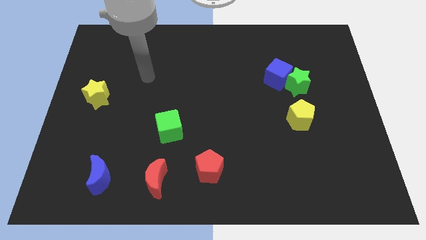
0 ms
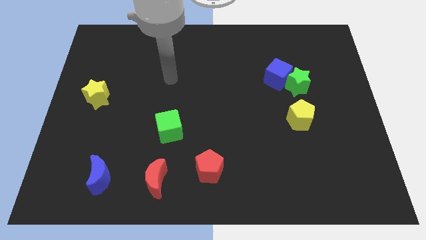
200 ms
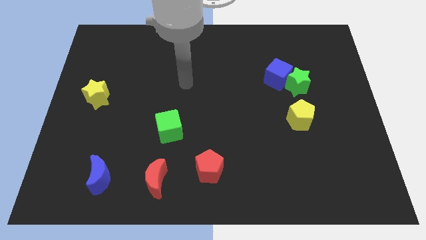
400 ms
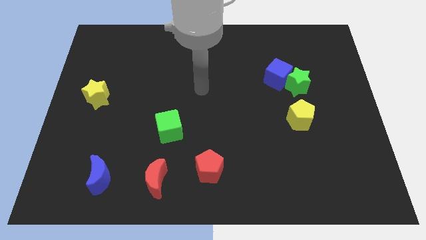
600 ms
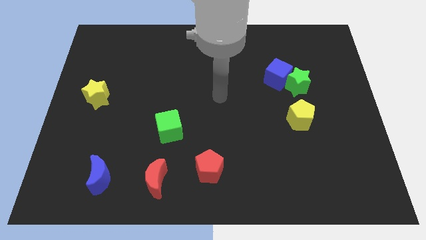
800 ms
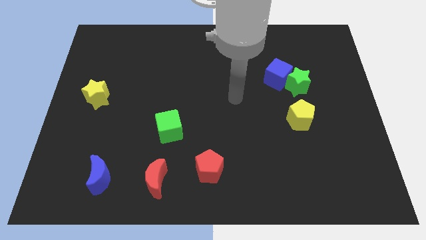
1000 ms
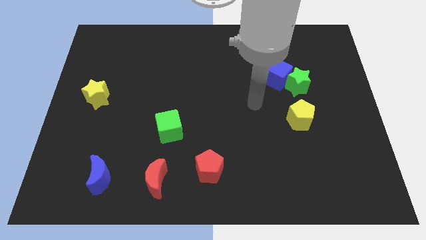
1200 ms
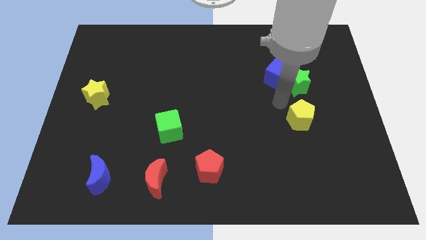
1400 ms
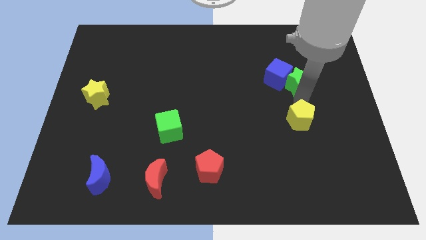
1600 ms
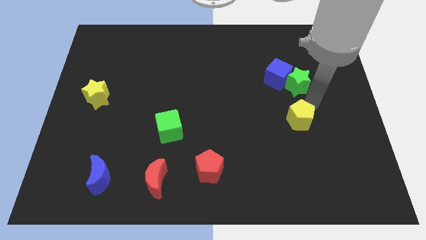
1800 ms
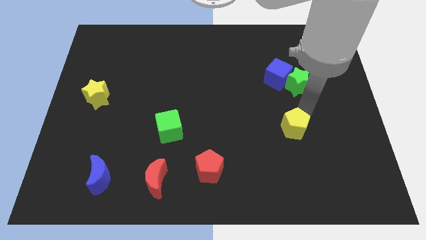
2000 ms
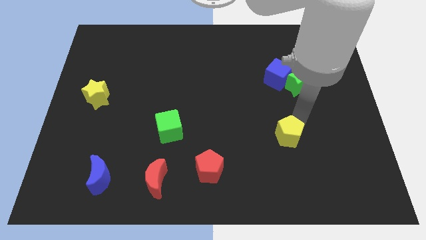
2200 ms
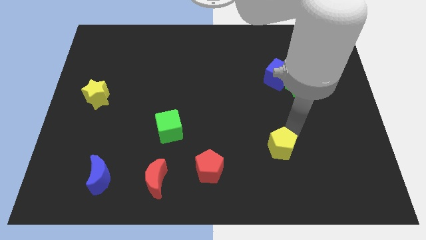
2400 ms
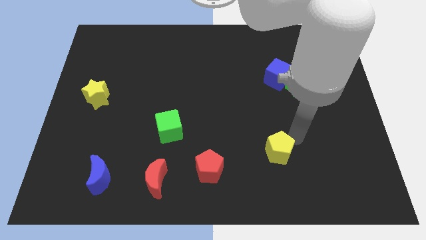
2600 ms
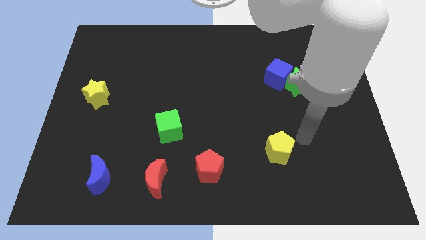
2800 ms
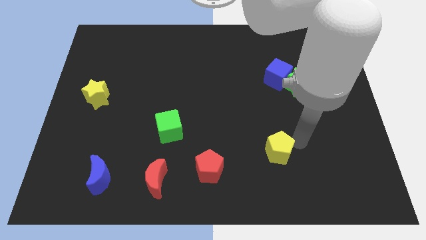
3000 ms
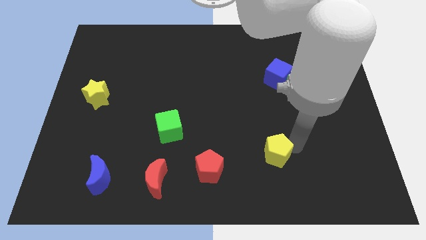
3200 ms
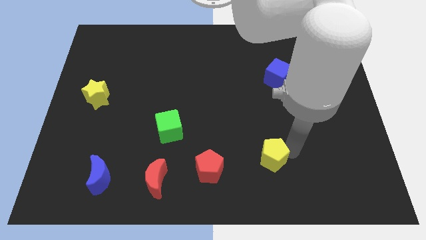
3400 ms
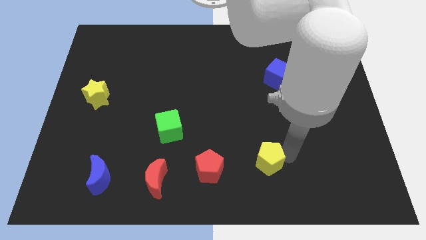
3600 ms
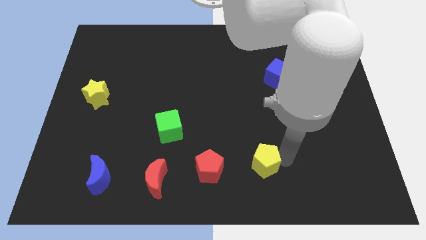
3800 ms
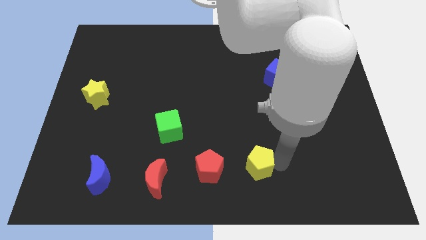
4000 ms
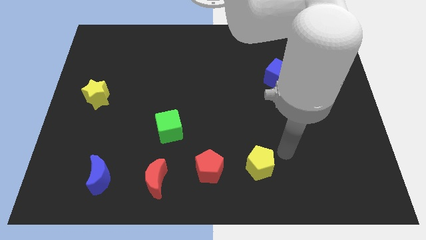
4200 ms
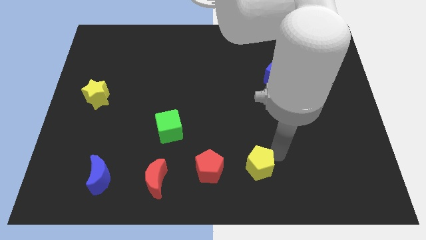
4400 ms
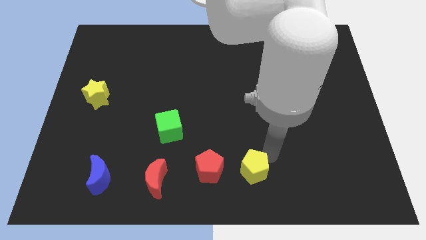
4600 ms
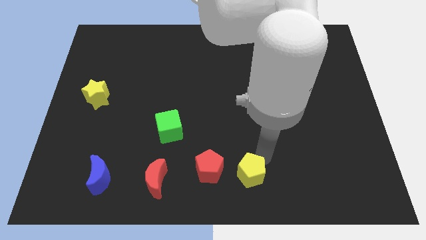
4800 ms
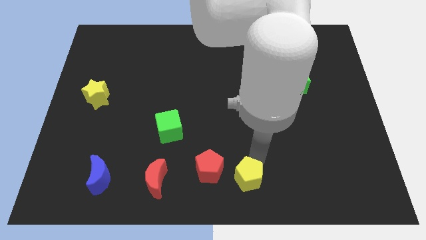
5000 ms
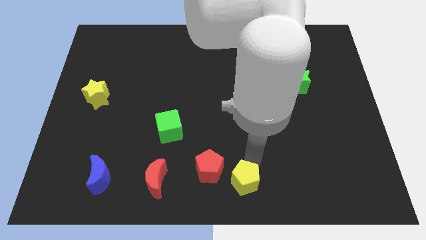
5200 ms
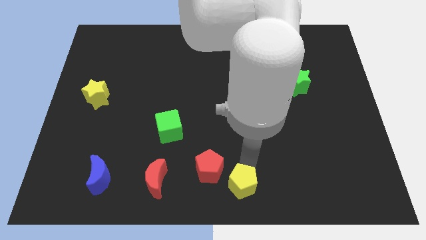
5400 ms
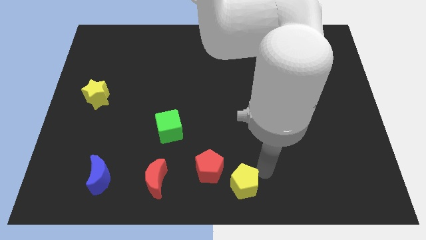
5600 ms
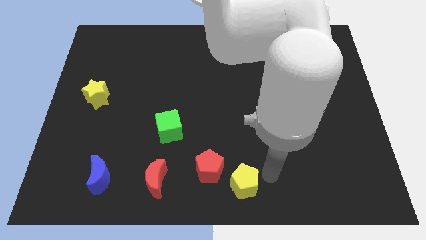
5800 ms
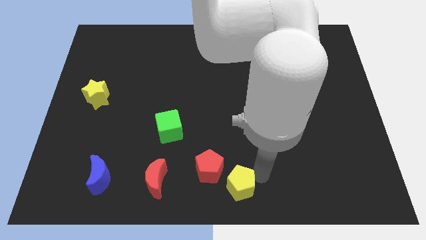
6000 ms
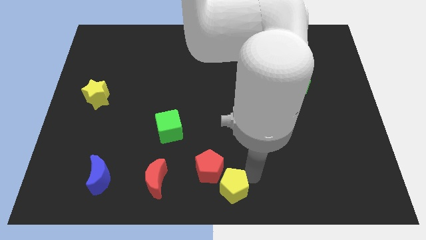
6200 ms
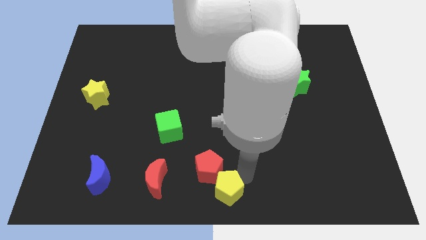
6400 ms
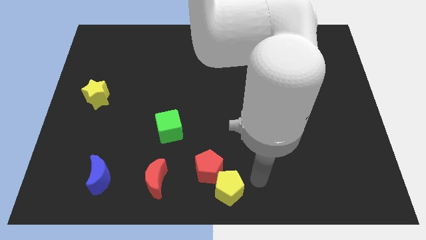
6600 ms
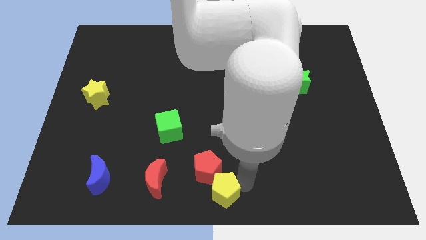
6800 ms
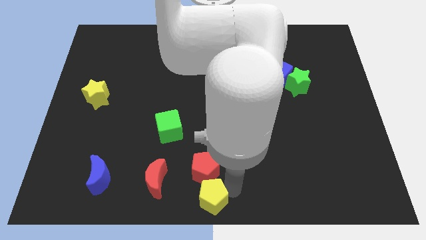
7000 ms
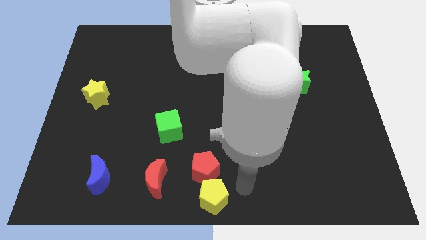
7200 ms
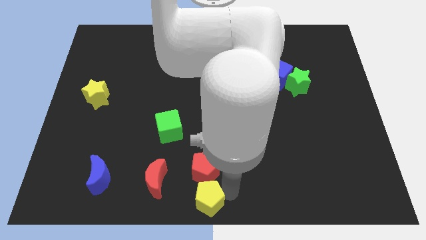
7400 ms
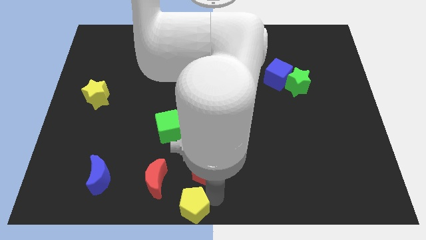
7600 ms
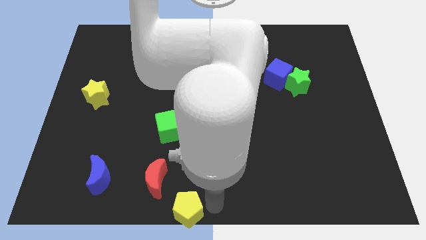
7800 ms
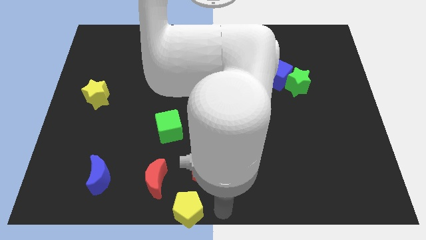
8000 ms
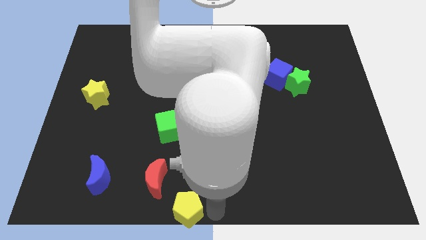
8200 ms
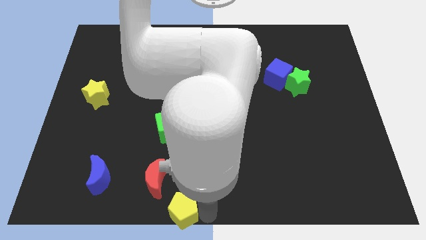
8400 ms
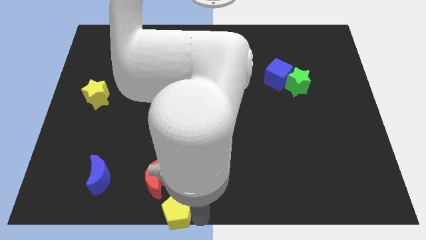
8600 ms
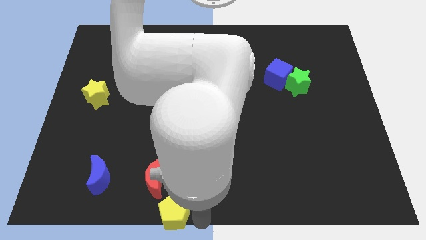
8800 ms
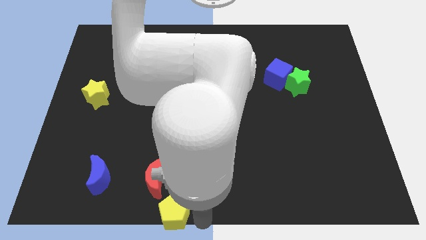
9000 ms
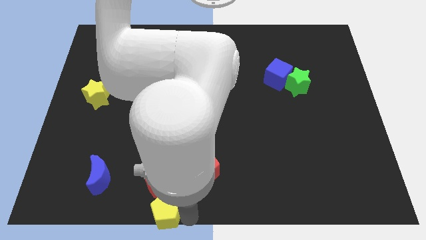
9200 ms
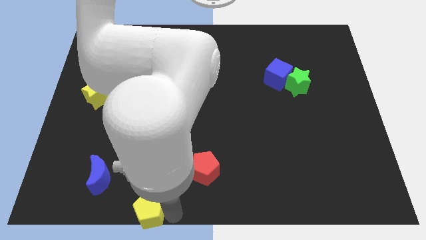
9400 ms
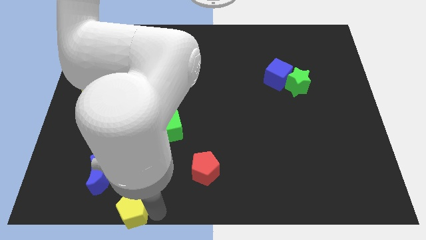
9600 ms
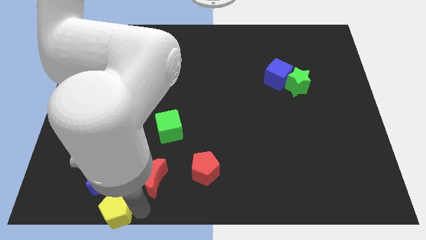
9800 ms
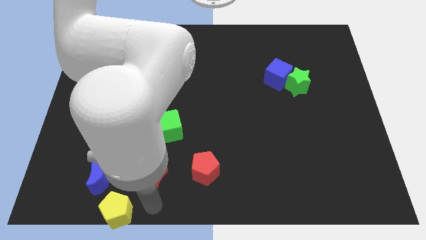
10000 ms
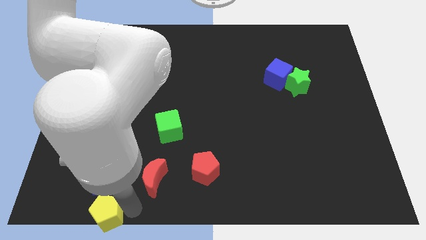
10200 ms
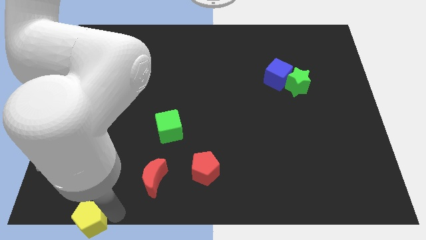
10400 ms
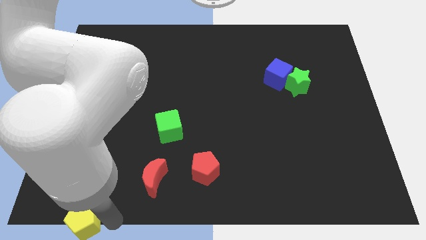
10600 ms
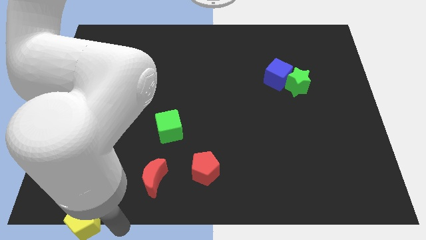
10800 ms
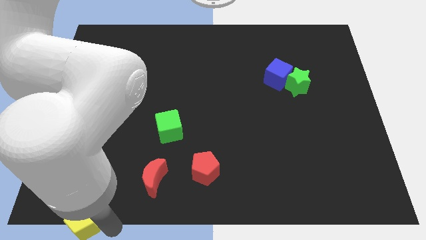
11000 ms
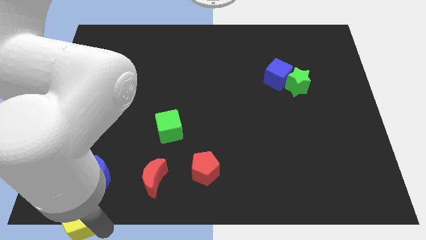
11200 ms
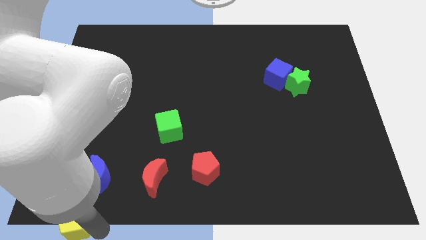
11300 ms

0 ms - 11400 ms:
move the yellow pentagon to the bottom left of the board

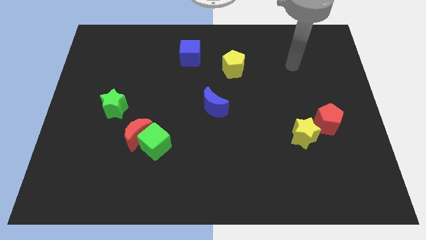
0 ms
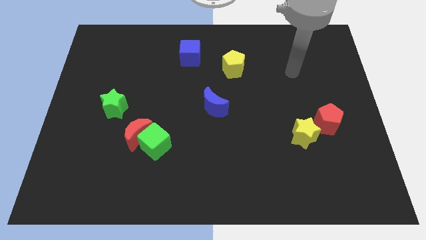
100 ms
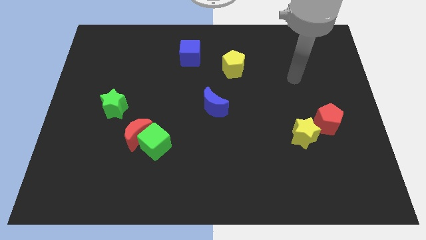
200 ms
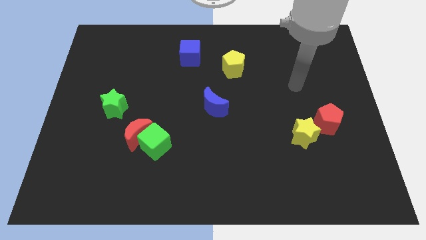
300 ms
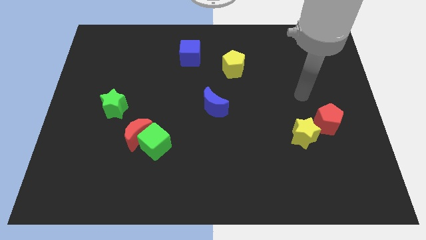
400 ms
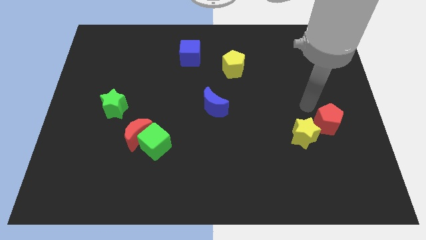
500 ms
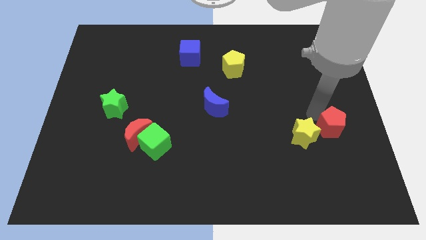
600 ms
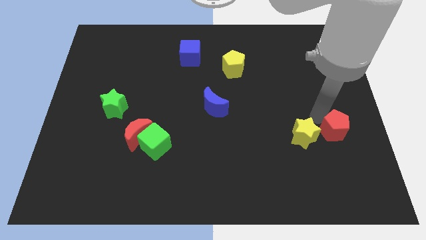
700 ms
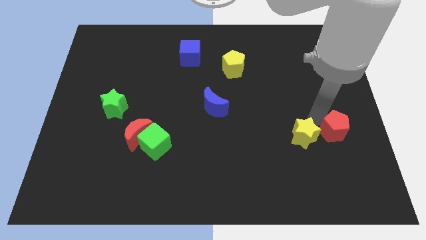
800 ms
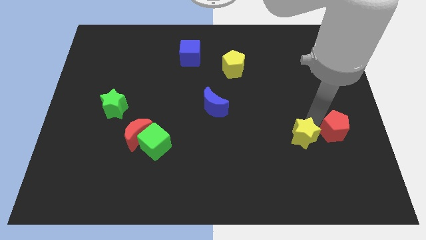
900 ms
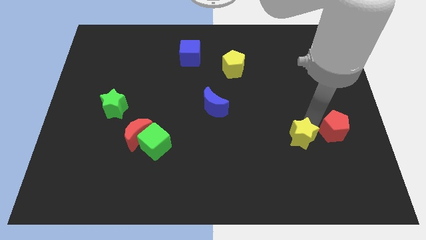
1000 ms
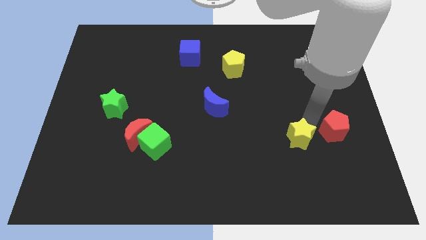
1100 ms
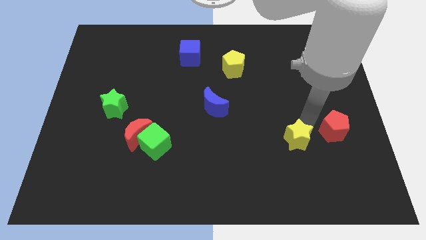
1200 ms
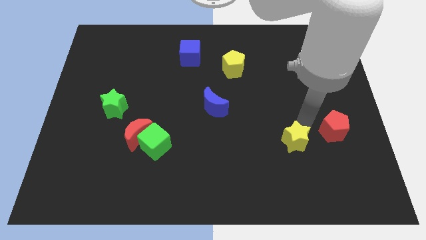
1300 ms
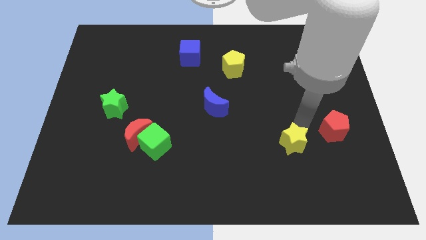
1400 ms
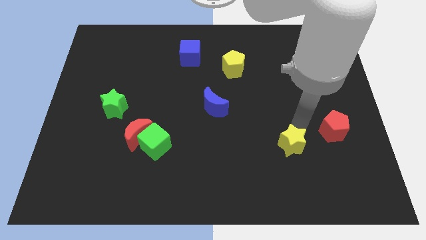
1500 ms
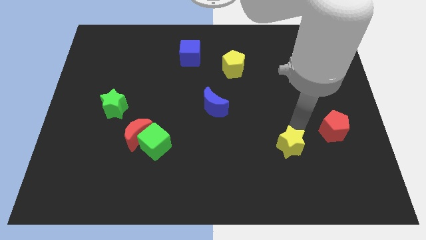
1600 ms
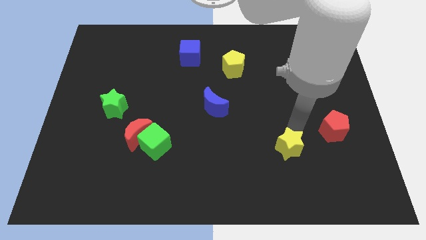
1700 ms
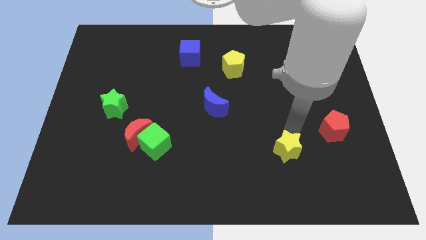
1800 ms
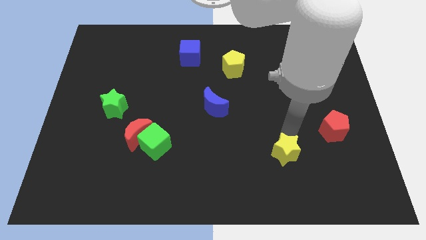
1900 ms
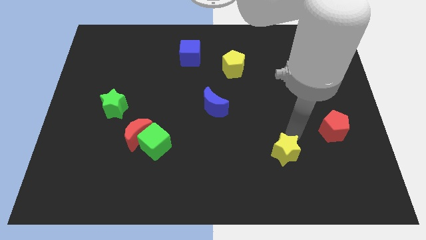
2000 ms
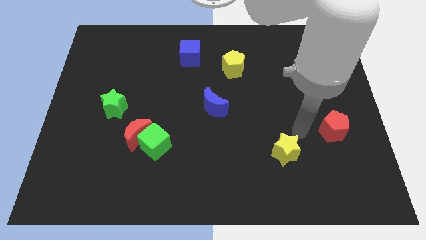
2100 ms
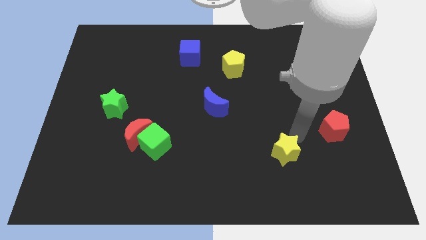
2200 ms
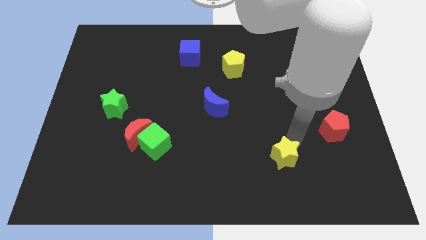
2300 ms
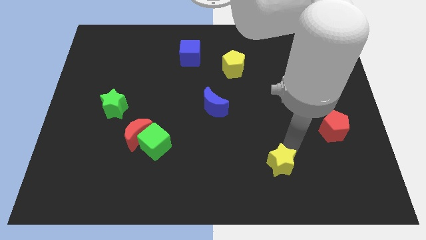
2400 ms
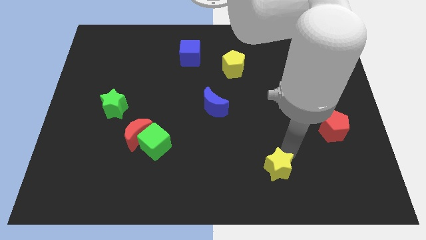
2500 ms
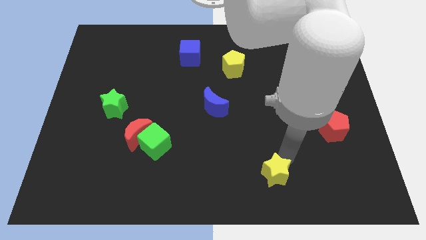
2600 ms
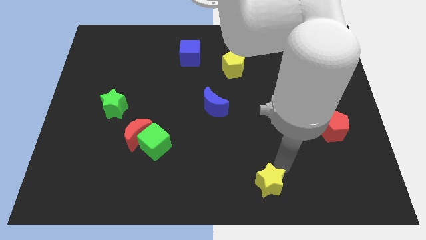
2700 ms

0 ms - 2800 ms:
slide the yellow star to the bottom
